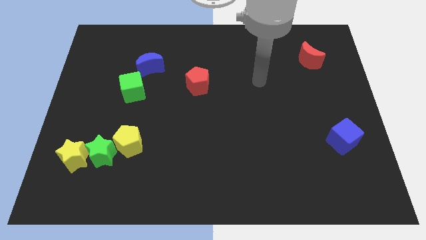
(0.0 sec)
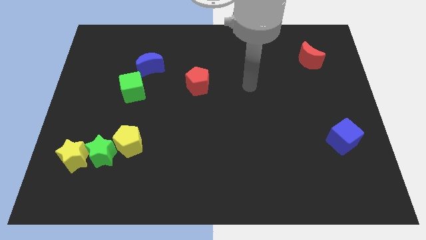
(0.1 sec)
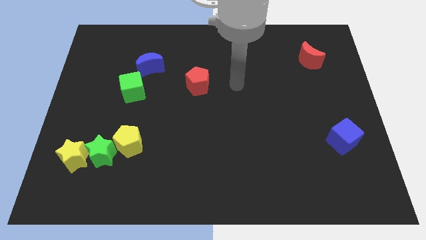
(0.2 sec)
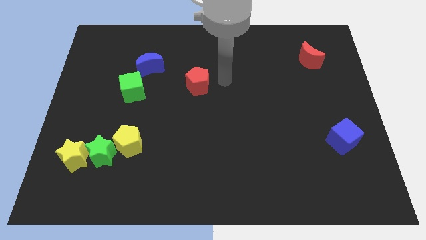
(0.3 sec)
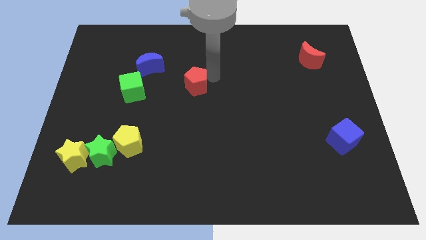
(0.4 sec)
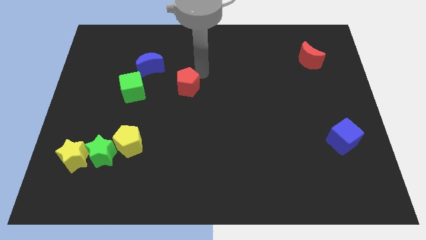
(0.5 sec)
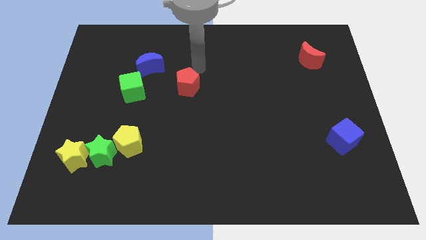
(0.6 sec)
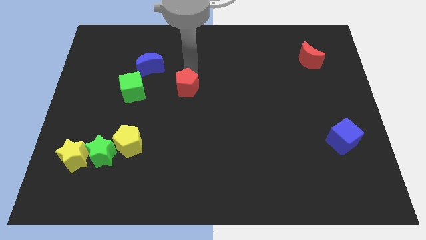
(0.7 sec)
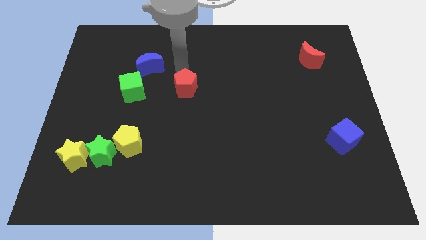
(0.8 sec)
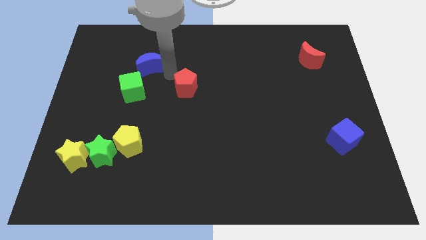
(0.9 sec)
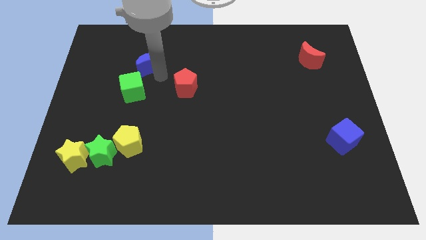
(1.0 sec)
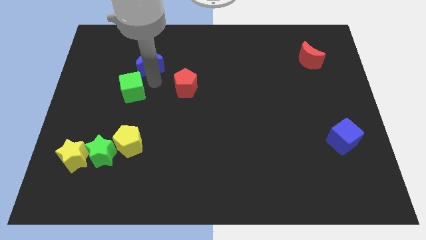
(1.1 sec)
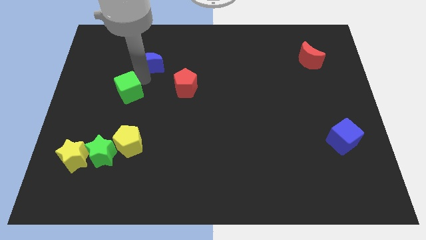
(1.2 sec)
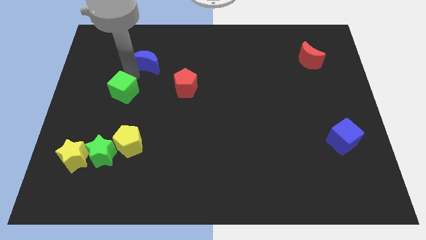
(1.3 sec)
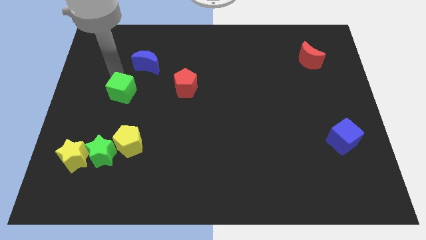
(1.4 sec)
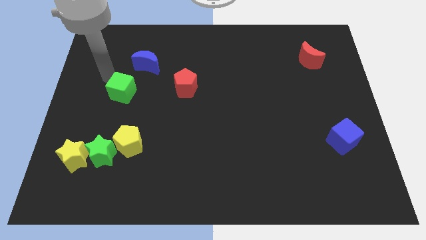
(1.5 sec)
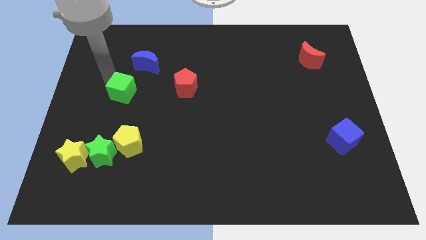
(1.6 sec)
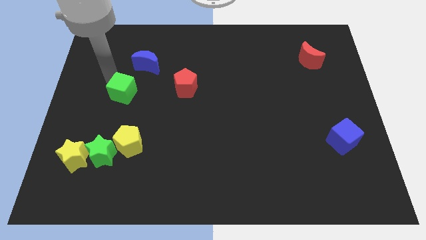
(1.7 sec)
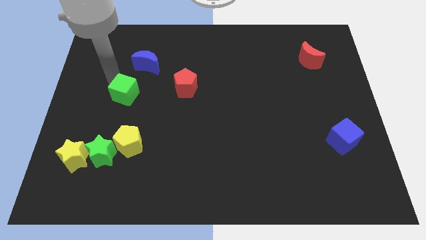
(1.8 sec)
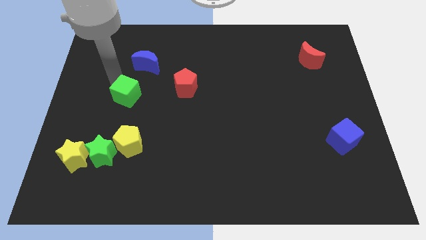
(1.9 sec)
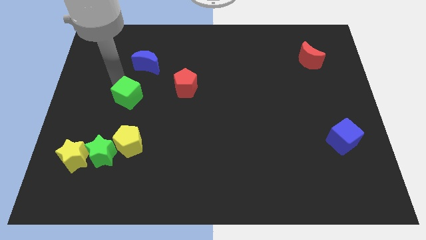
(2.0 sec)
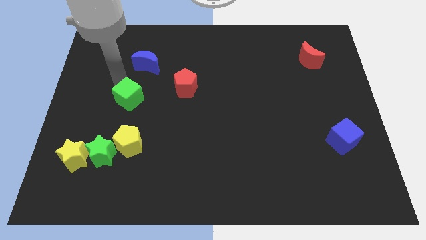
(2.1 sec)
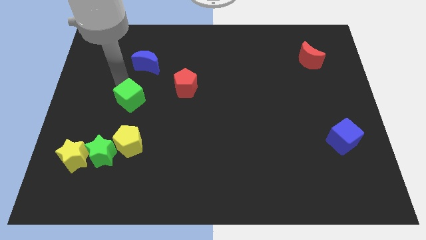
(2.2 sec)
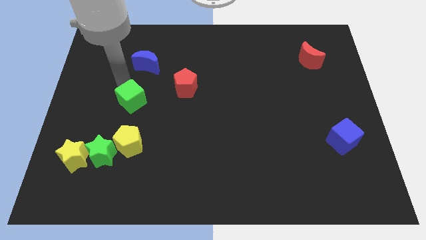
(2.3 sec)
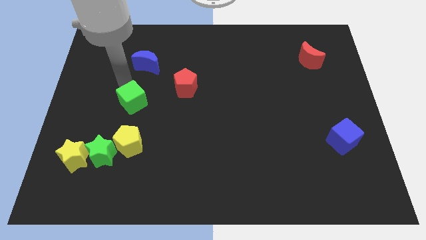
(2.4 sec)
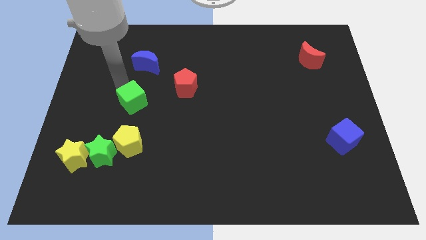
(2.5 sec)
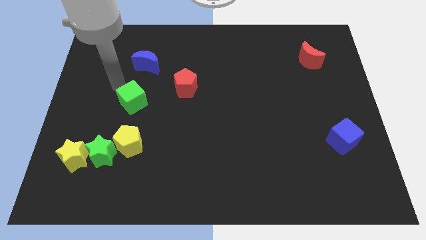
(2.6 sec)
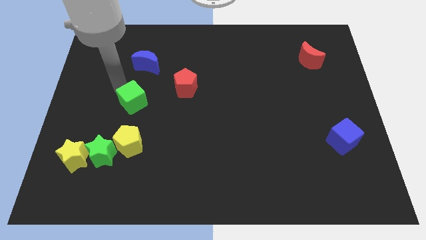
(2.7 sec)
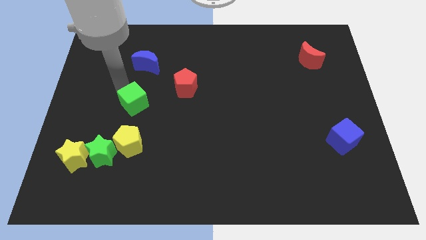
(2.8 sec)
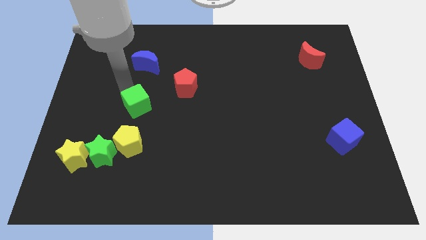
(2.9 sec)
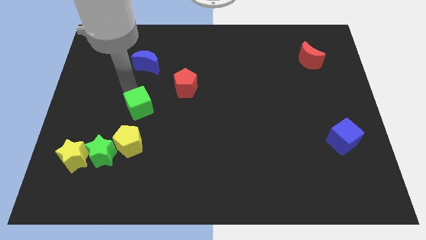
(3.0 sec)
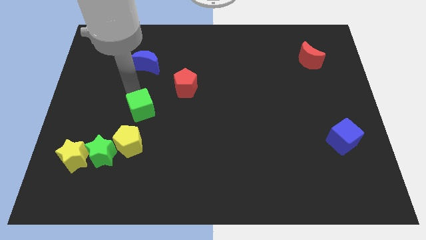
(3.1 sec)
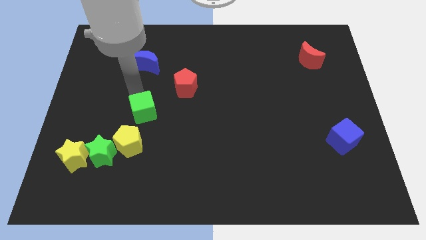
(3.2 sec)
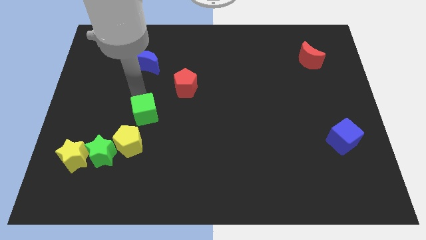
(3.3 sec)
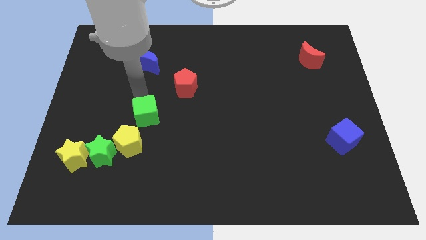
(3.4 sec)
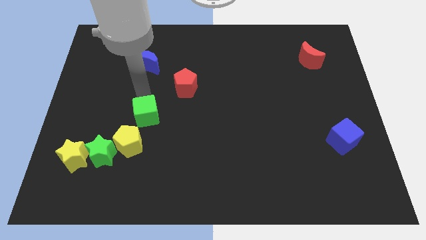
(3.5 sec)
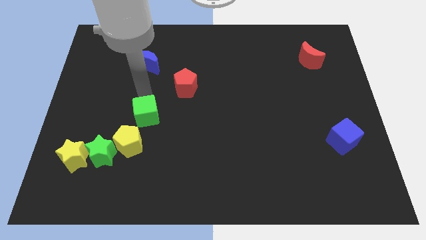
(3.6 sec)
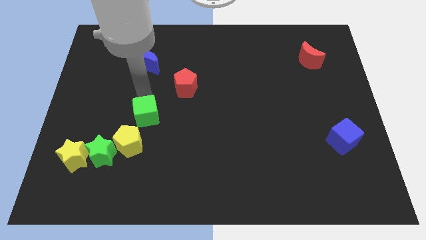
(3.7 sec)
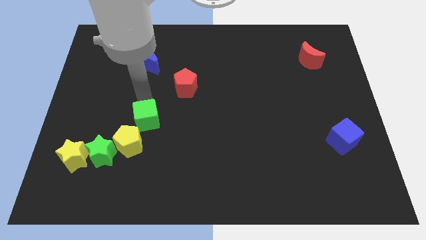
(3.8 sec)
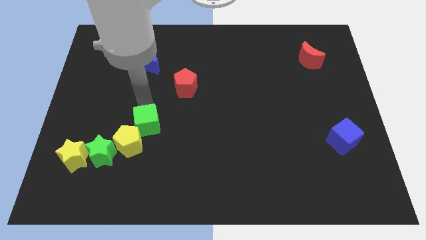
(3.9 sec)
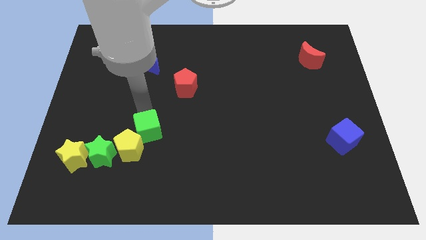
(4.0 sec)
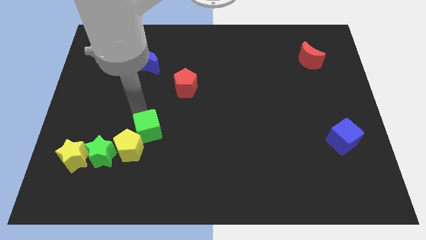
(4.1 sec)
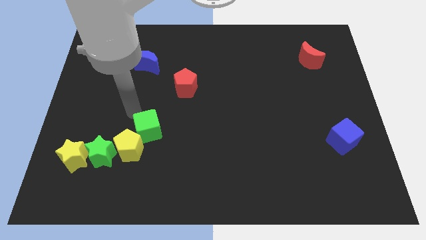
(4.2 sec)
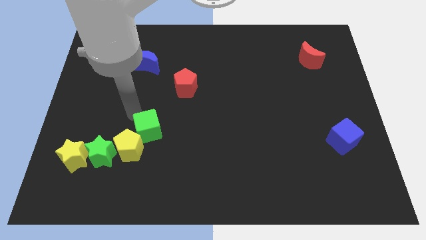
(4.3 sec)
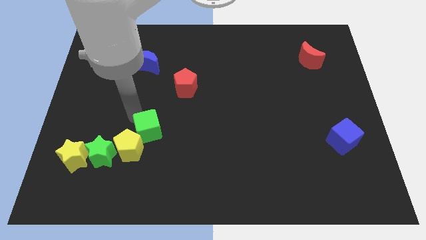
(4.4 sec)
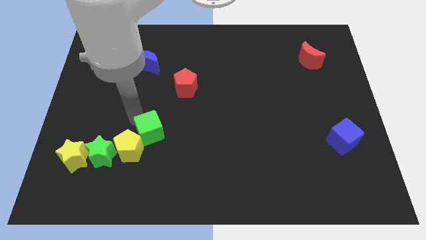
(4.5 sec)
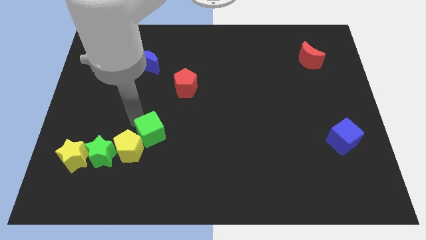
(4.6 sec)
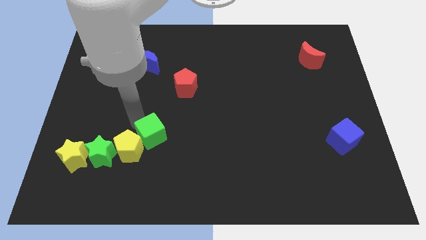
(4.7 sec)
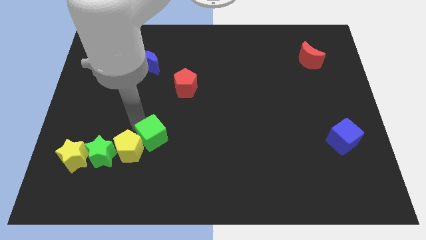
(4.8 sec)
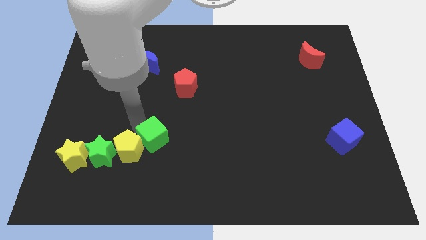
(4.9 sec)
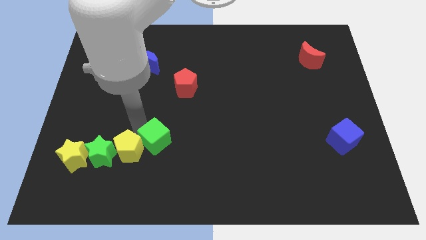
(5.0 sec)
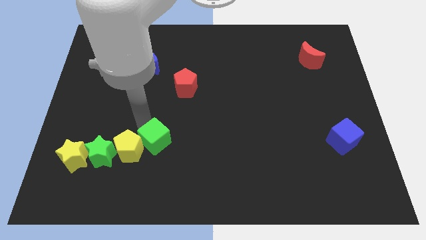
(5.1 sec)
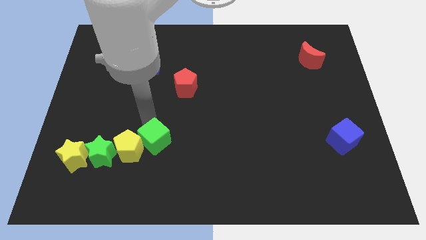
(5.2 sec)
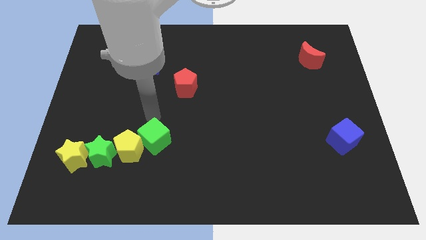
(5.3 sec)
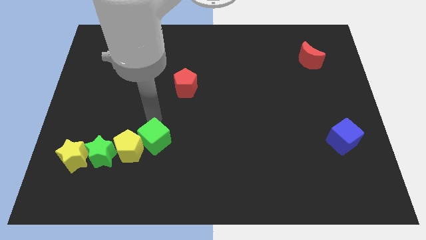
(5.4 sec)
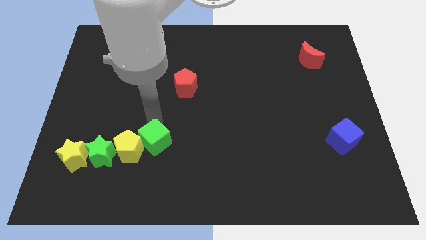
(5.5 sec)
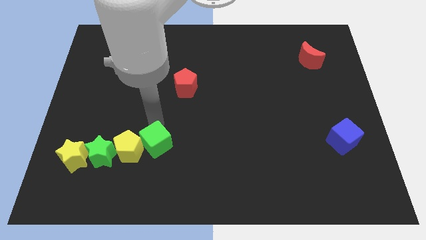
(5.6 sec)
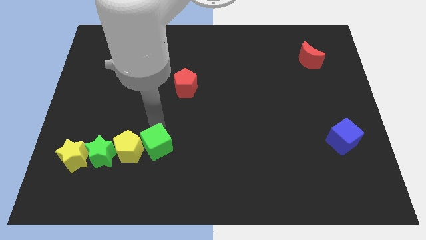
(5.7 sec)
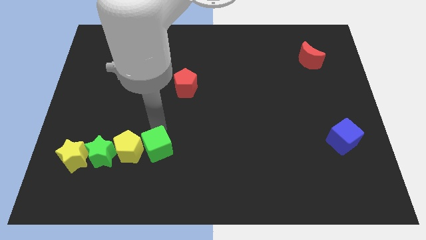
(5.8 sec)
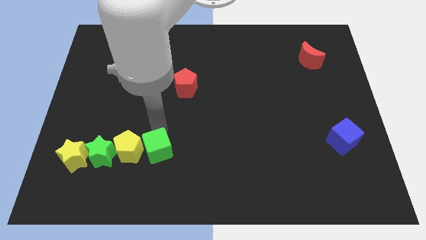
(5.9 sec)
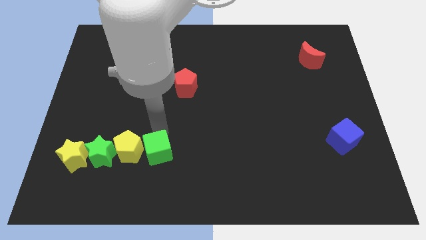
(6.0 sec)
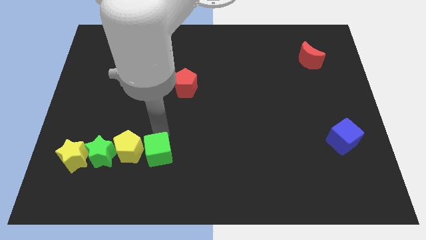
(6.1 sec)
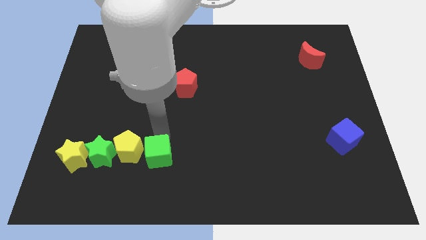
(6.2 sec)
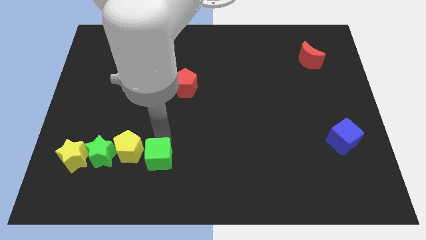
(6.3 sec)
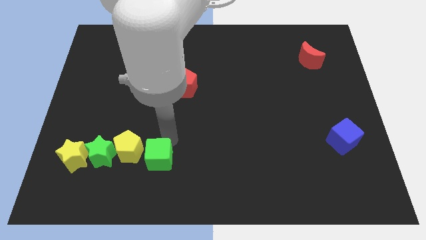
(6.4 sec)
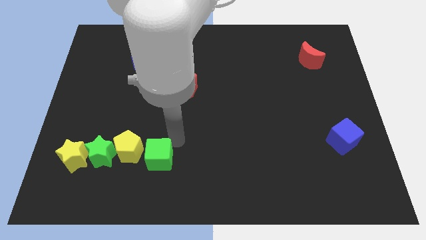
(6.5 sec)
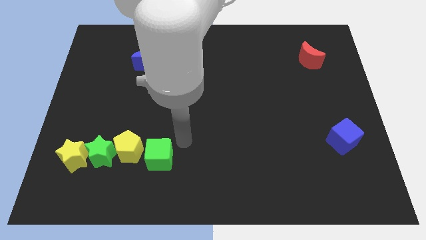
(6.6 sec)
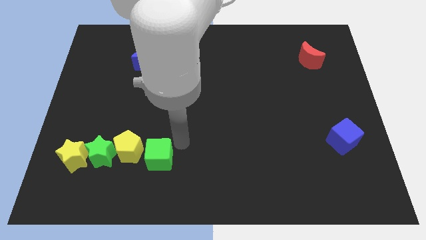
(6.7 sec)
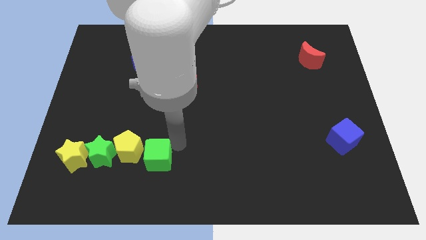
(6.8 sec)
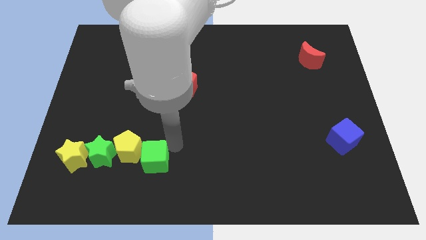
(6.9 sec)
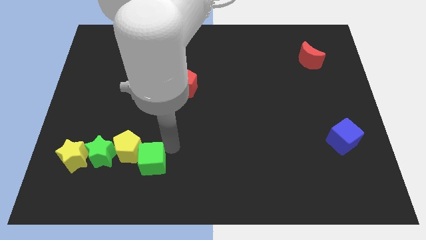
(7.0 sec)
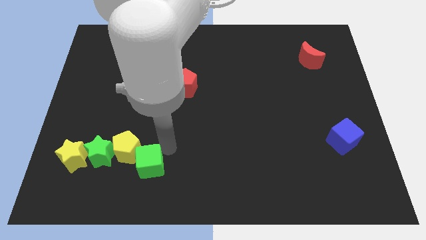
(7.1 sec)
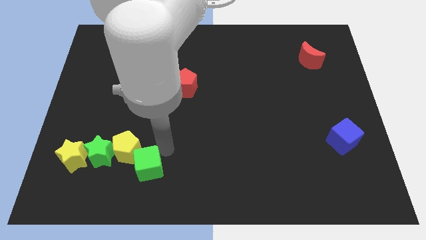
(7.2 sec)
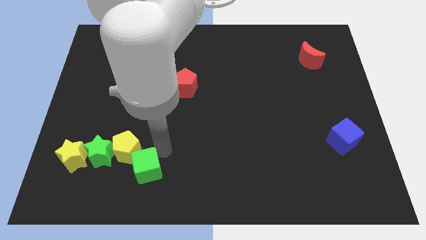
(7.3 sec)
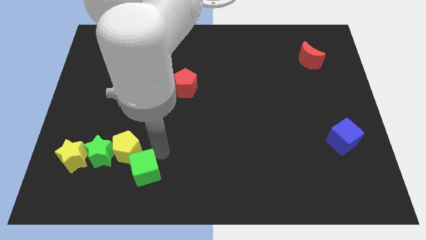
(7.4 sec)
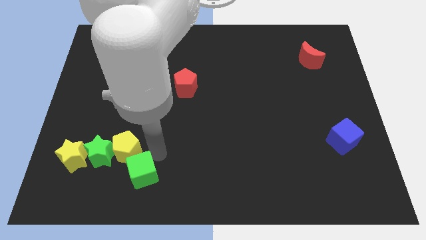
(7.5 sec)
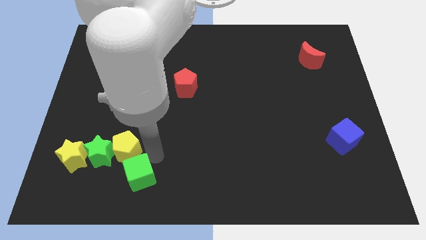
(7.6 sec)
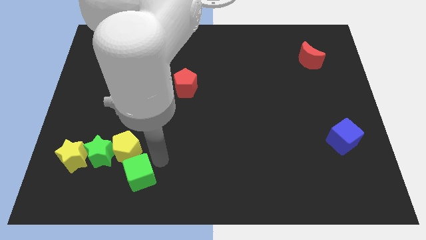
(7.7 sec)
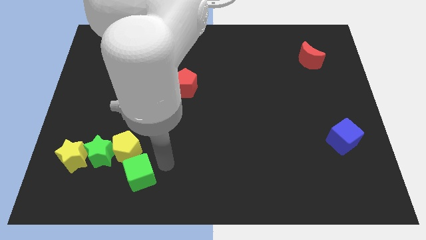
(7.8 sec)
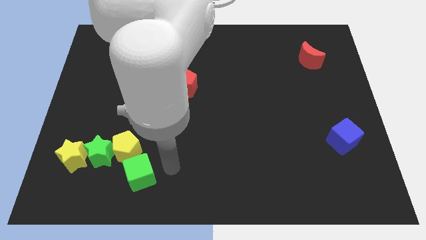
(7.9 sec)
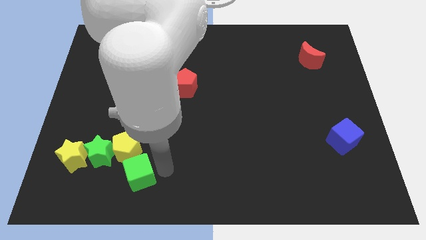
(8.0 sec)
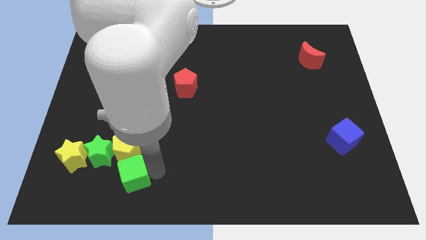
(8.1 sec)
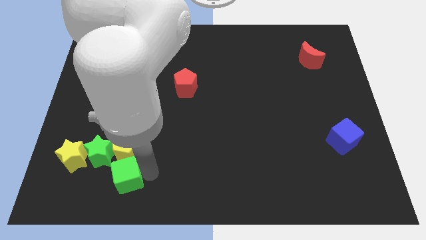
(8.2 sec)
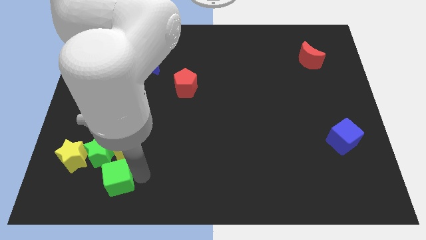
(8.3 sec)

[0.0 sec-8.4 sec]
push the green cube to the bottom right side of the yellow star

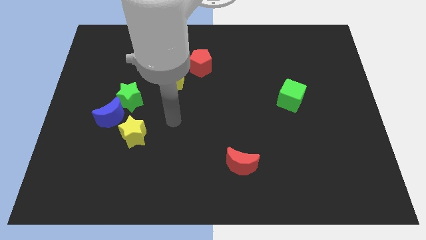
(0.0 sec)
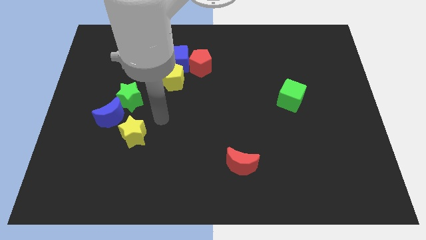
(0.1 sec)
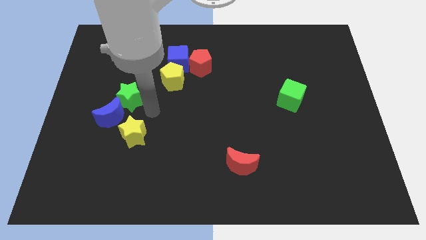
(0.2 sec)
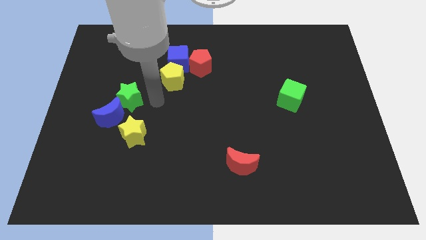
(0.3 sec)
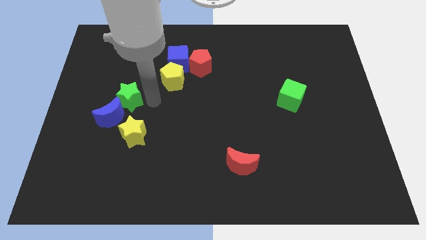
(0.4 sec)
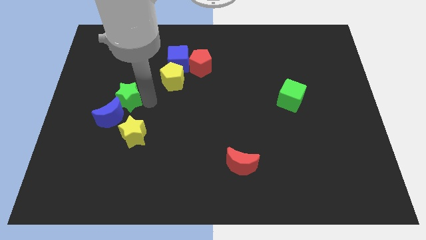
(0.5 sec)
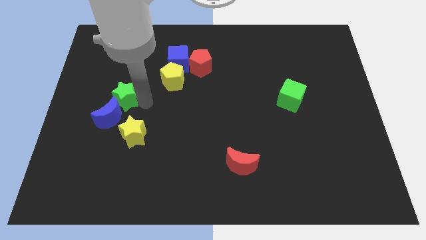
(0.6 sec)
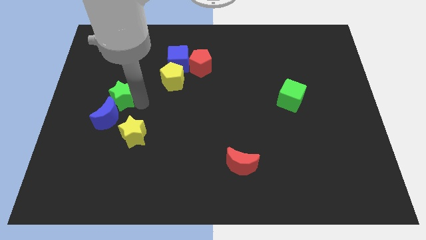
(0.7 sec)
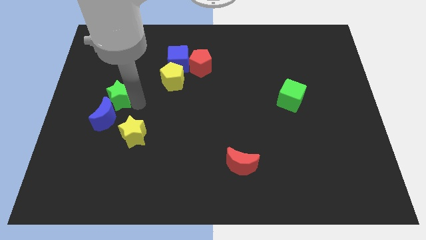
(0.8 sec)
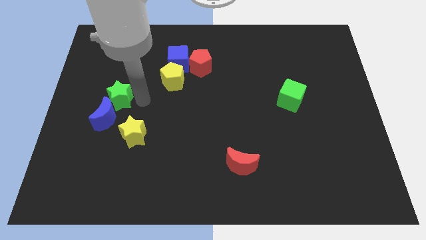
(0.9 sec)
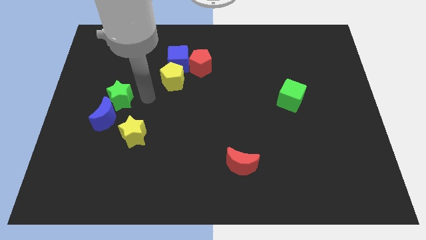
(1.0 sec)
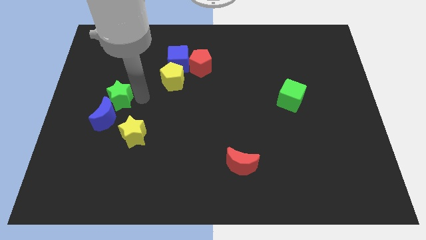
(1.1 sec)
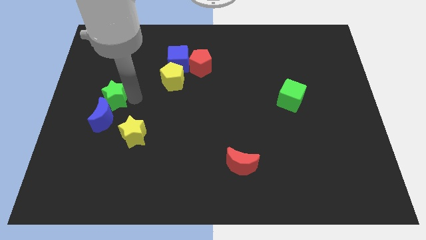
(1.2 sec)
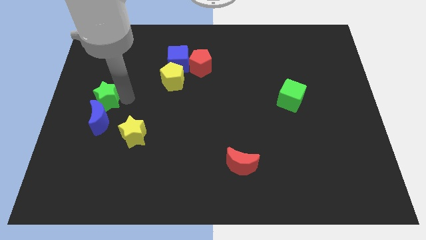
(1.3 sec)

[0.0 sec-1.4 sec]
move the green star diagonally up and to the left of the blue moon